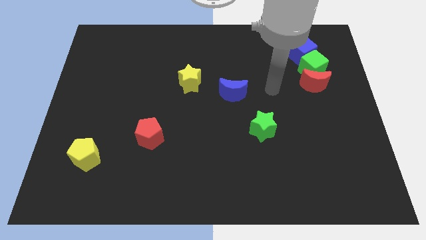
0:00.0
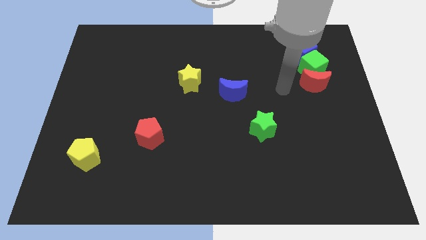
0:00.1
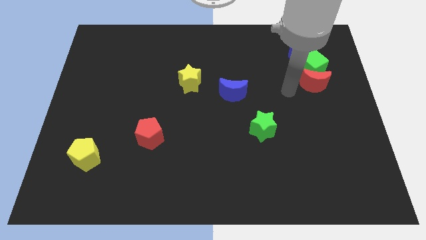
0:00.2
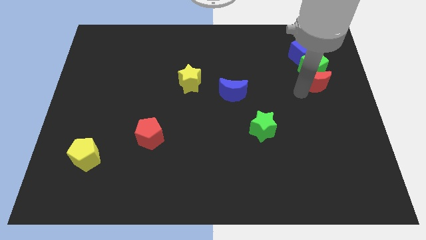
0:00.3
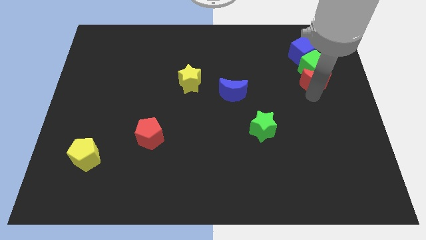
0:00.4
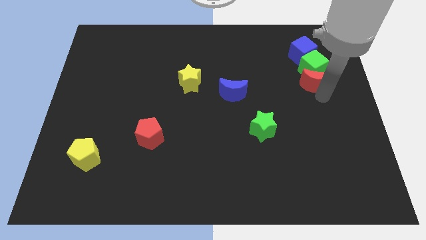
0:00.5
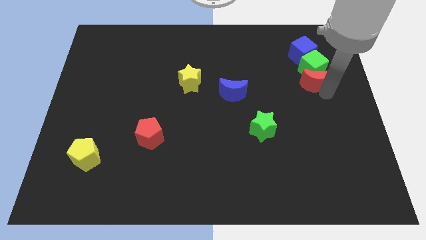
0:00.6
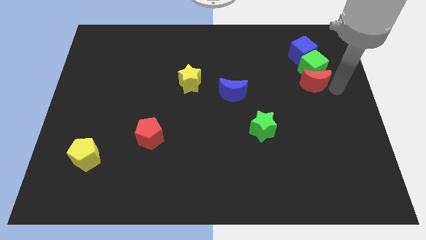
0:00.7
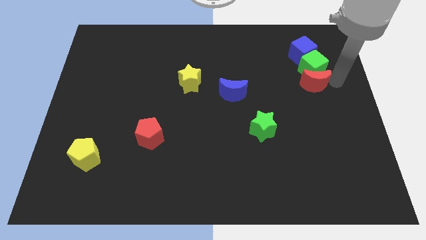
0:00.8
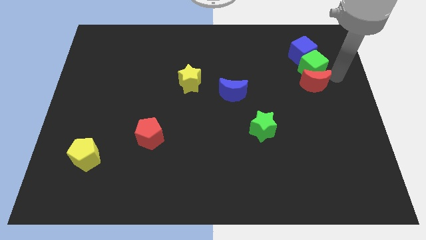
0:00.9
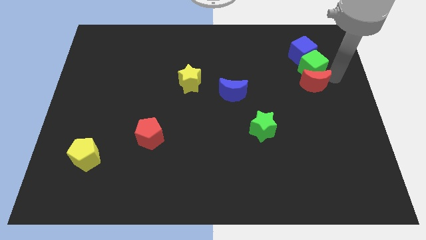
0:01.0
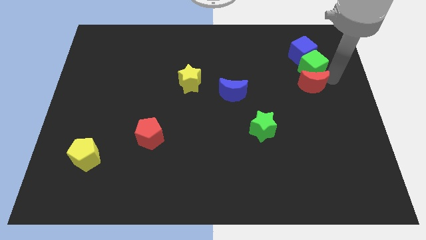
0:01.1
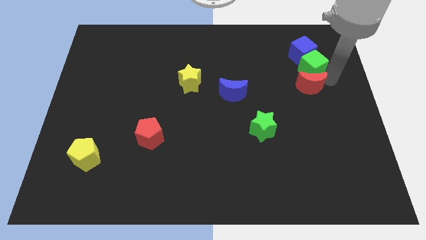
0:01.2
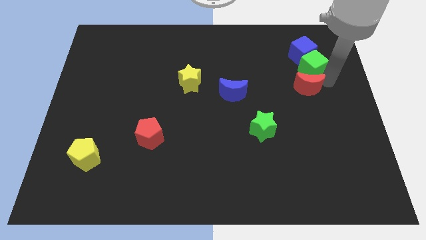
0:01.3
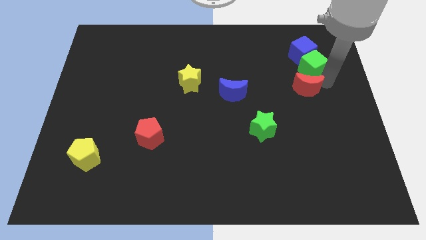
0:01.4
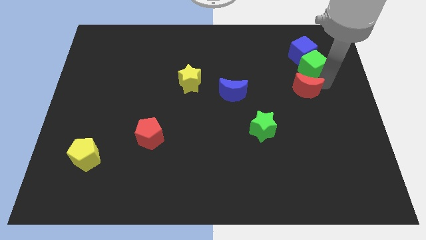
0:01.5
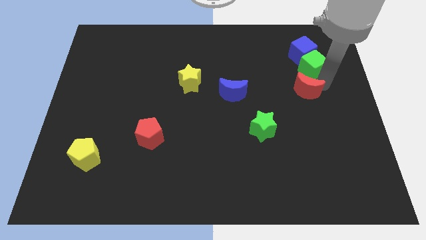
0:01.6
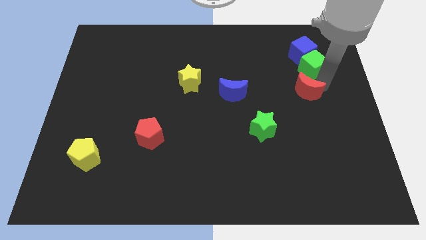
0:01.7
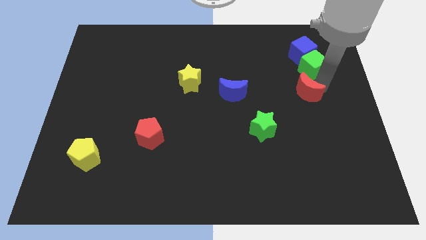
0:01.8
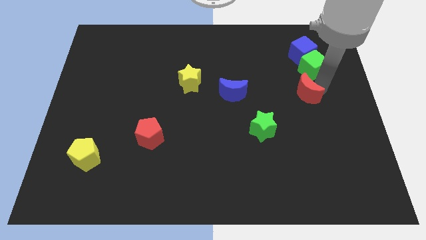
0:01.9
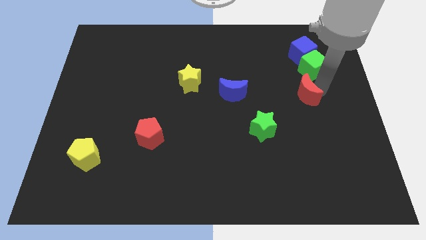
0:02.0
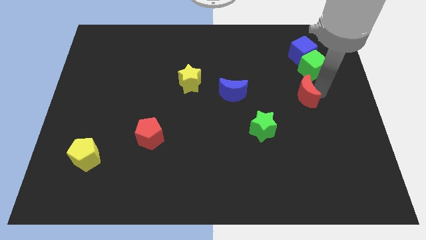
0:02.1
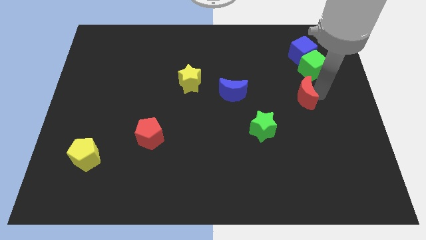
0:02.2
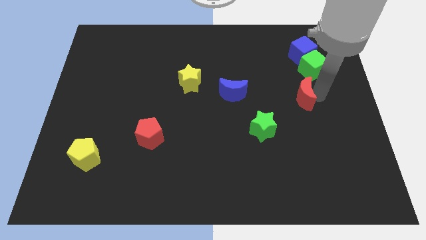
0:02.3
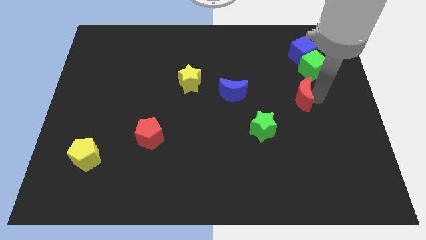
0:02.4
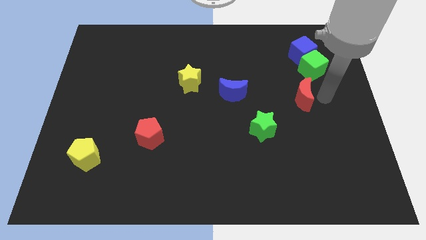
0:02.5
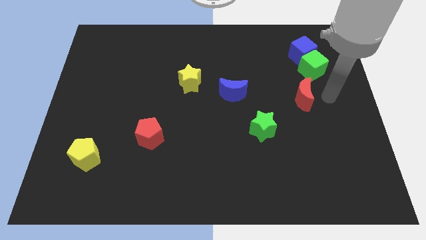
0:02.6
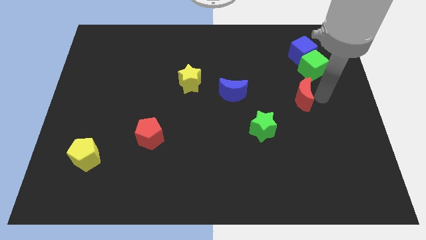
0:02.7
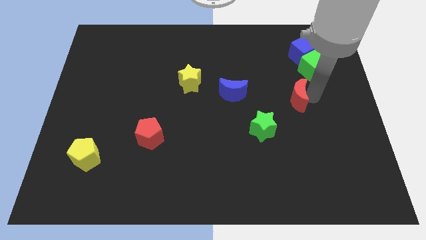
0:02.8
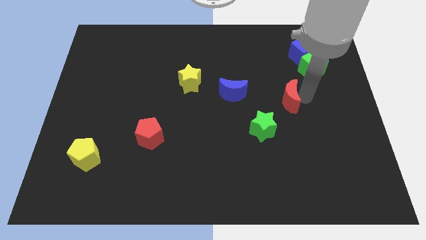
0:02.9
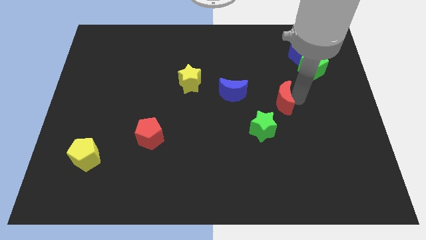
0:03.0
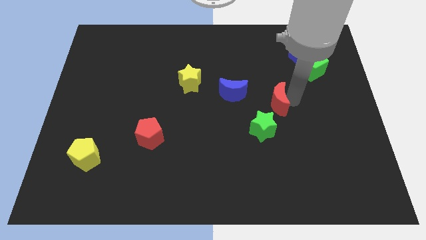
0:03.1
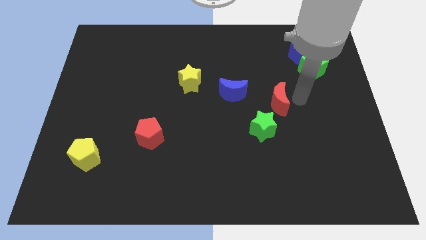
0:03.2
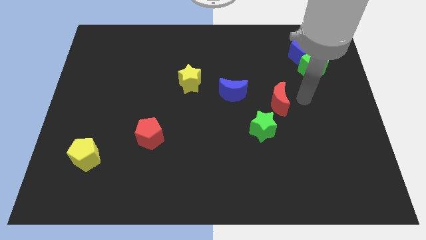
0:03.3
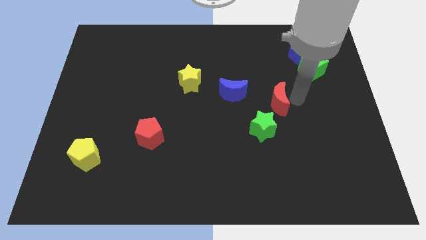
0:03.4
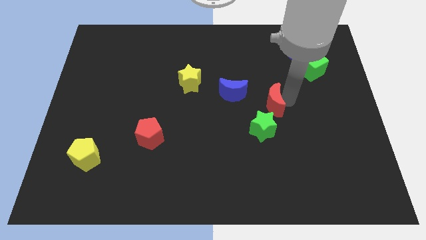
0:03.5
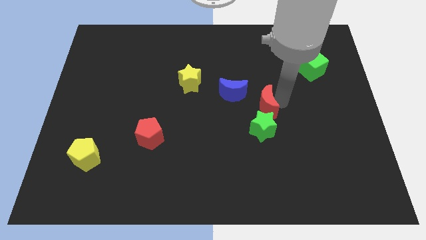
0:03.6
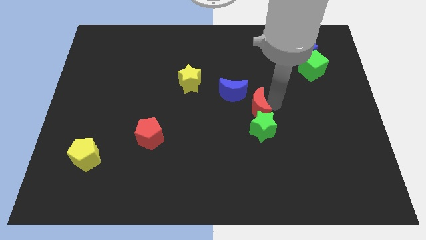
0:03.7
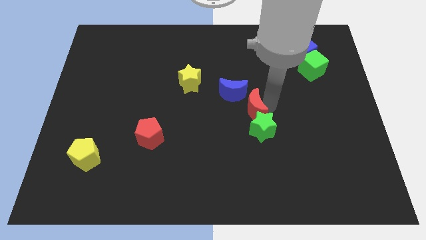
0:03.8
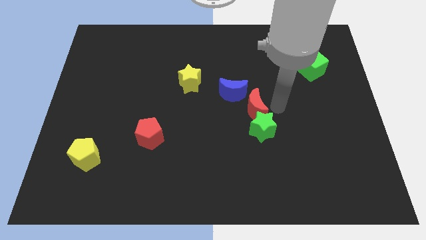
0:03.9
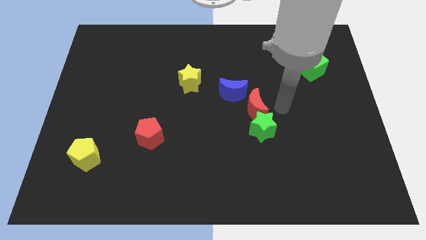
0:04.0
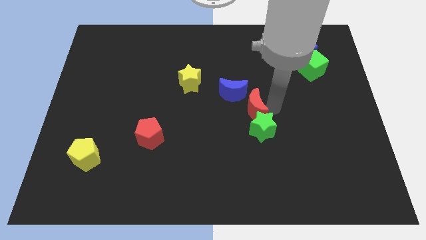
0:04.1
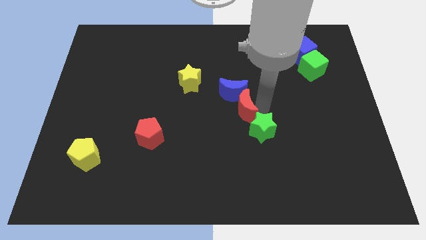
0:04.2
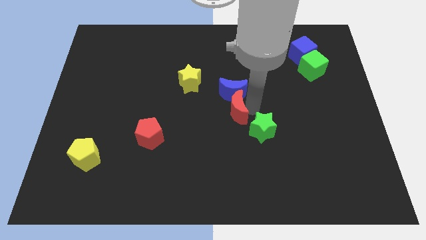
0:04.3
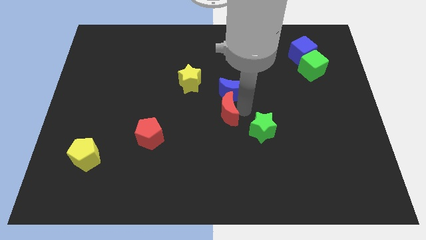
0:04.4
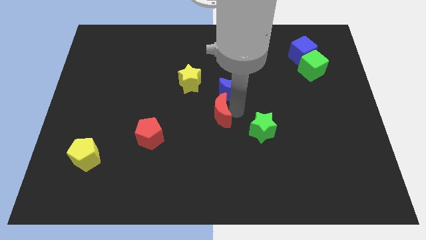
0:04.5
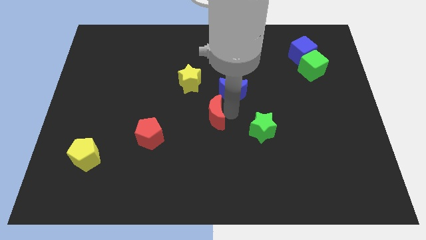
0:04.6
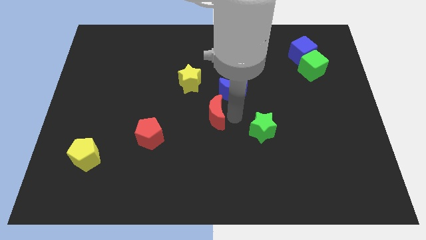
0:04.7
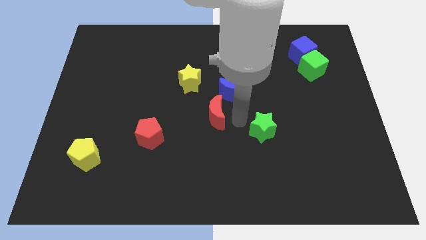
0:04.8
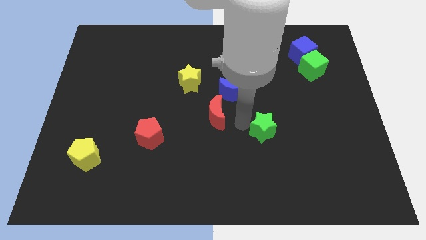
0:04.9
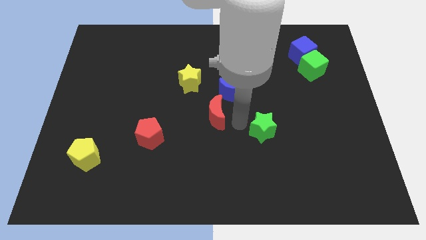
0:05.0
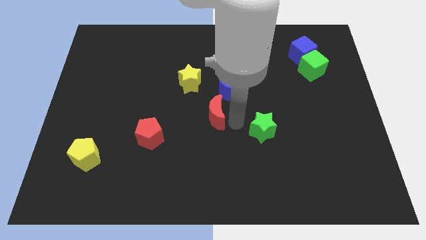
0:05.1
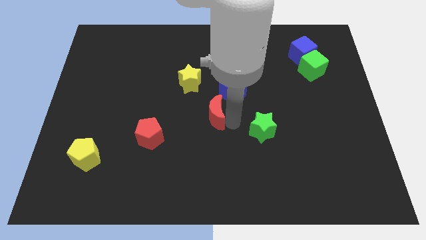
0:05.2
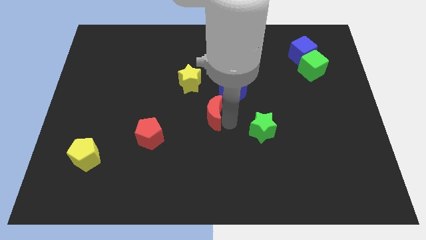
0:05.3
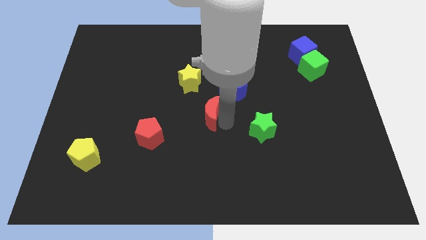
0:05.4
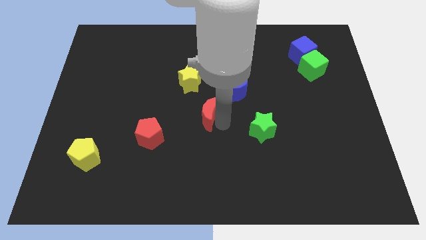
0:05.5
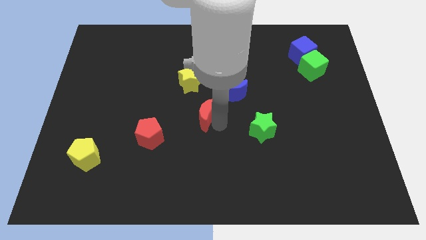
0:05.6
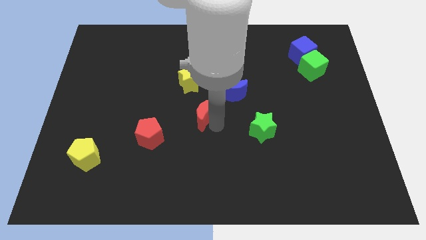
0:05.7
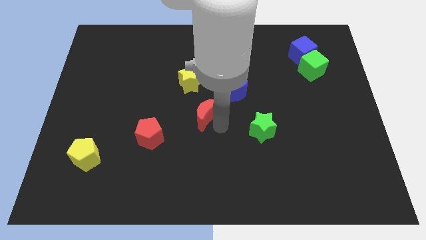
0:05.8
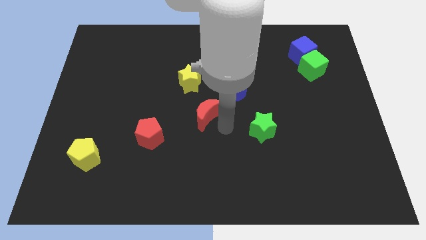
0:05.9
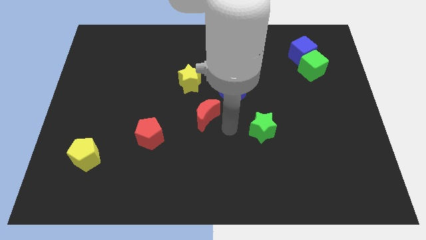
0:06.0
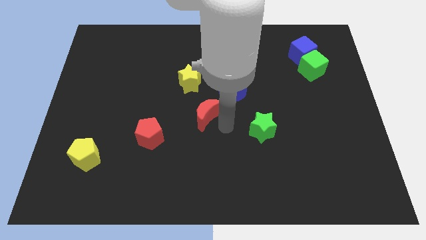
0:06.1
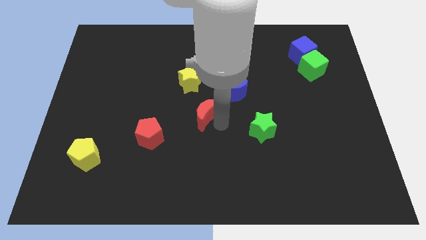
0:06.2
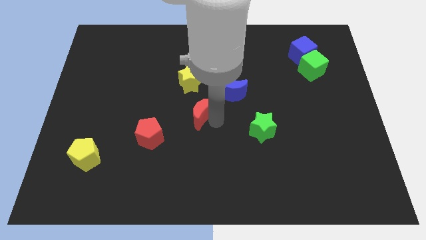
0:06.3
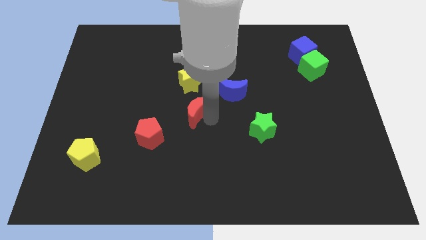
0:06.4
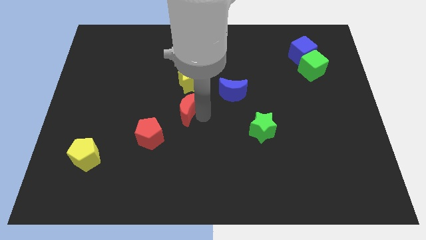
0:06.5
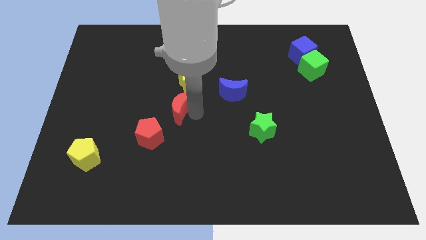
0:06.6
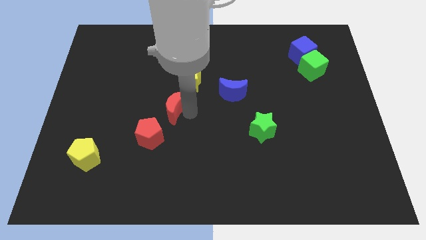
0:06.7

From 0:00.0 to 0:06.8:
push the red moon to the top side of the red pentagon

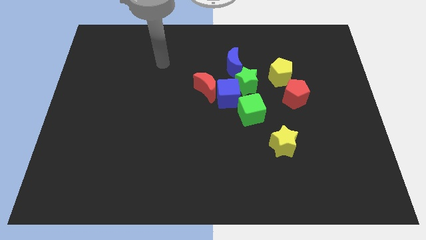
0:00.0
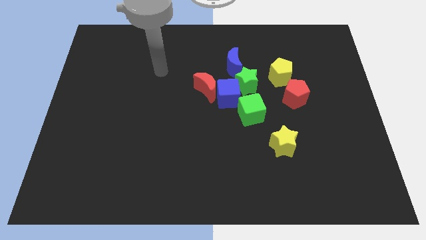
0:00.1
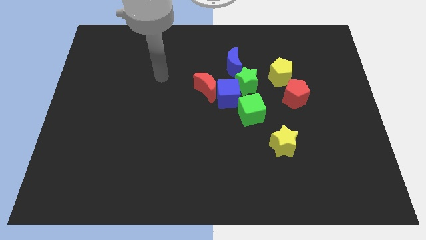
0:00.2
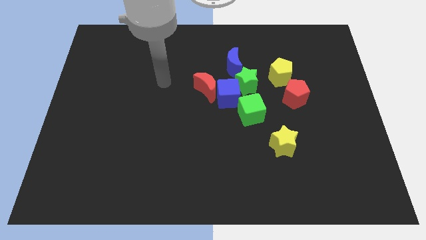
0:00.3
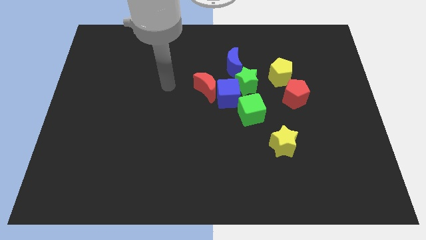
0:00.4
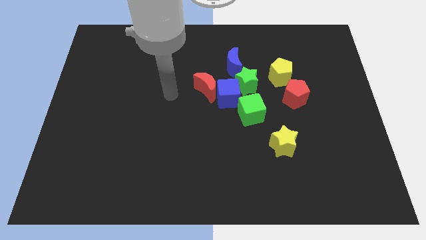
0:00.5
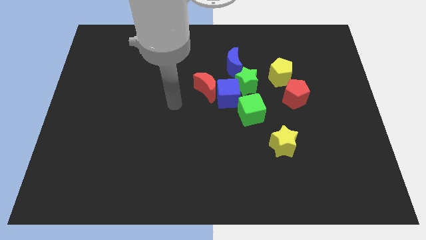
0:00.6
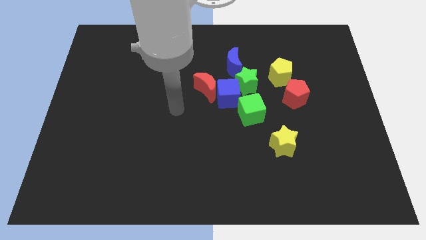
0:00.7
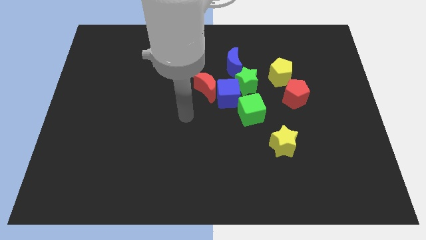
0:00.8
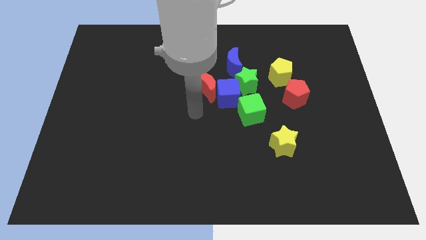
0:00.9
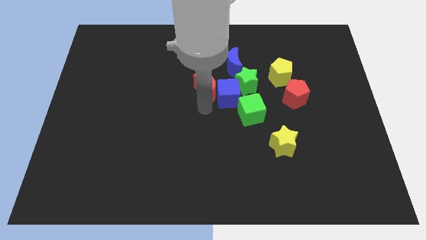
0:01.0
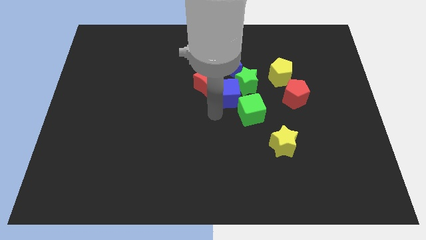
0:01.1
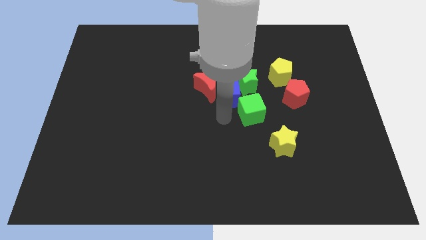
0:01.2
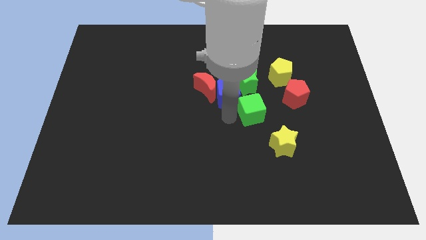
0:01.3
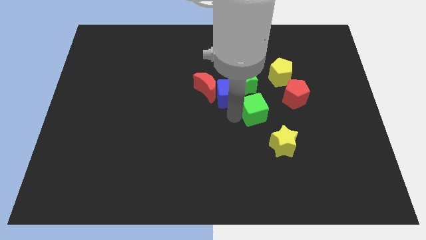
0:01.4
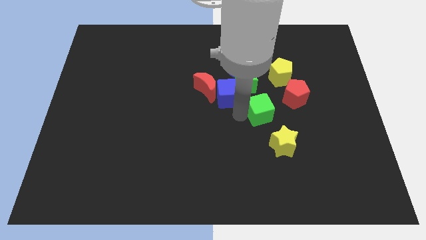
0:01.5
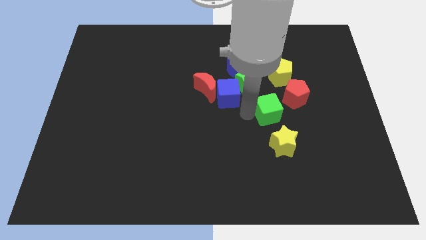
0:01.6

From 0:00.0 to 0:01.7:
slide the green cube below the yellow pentagon
